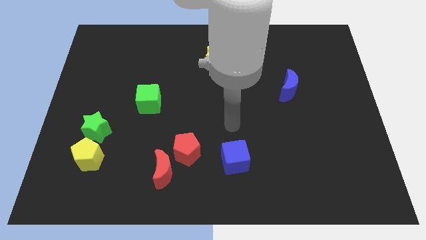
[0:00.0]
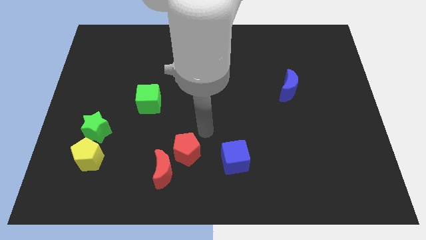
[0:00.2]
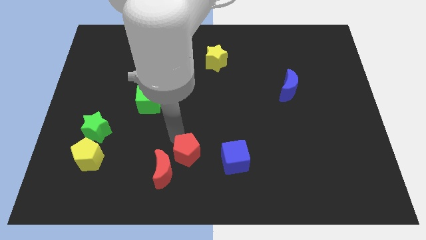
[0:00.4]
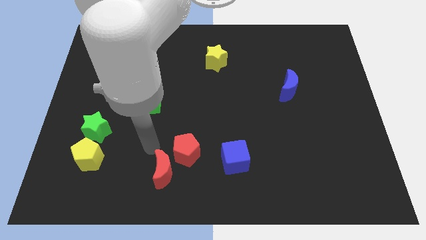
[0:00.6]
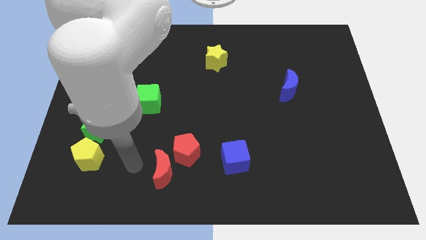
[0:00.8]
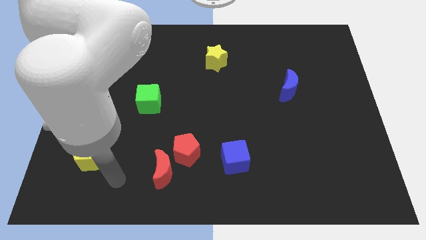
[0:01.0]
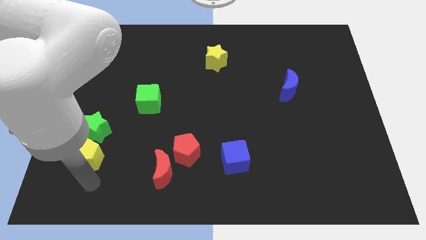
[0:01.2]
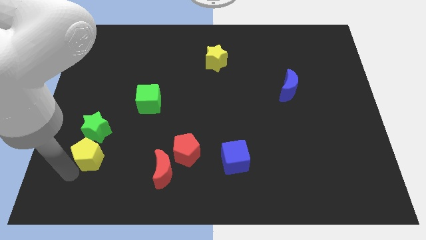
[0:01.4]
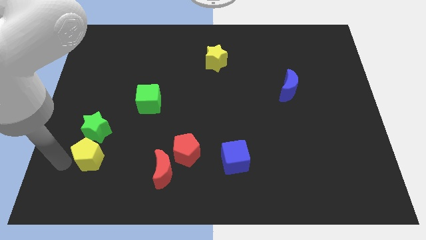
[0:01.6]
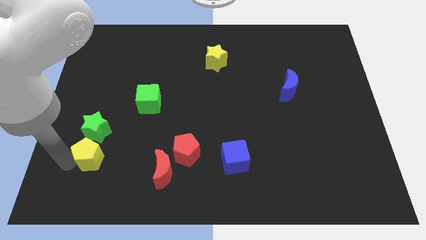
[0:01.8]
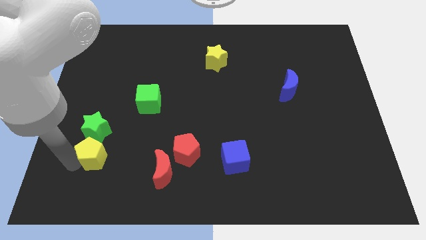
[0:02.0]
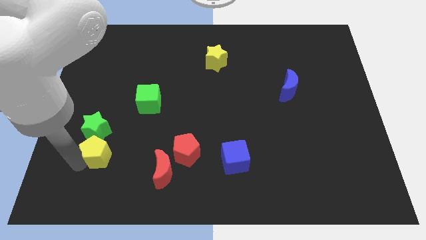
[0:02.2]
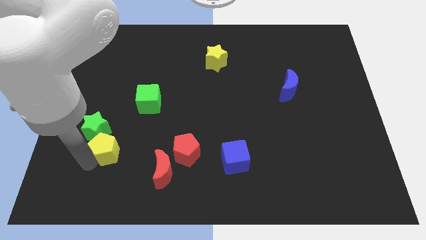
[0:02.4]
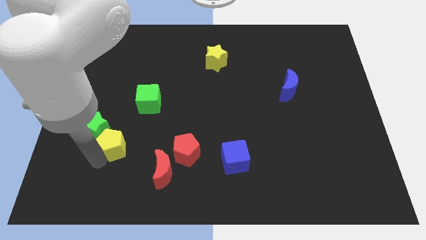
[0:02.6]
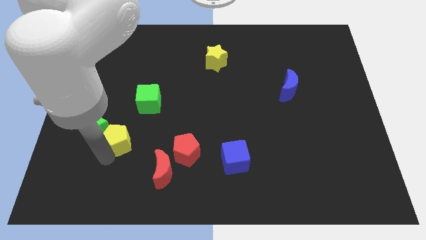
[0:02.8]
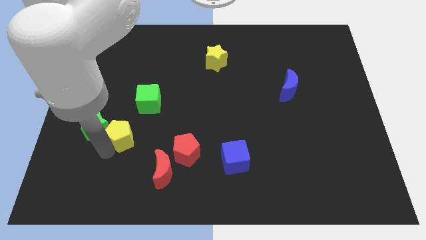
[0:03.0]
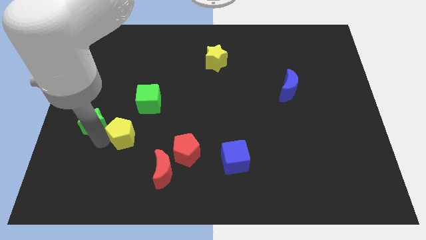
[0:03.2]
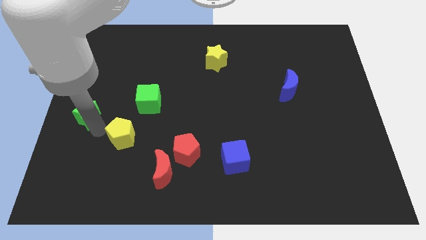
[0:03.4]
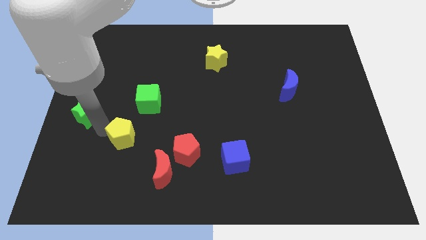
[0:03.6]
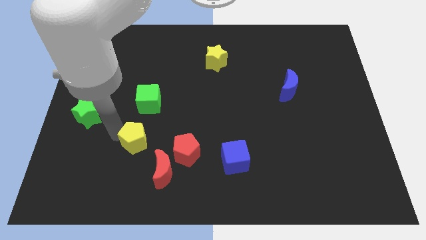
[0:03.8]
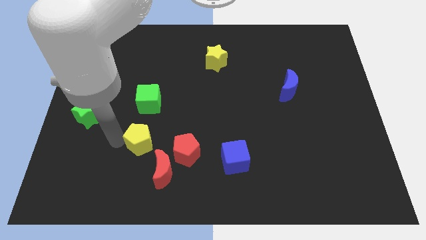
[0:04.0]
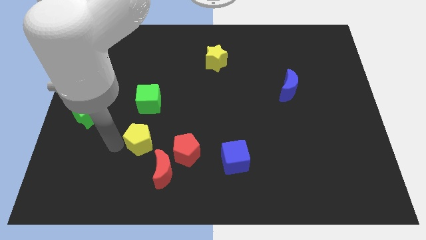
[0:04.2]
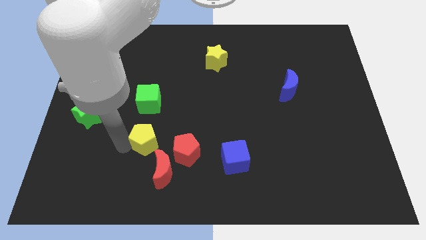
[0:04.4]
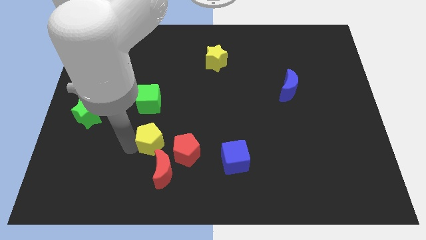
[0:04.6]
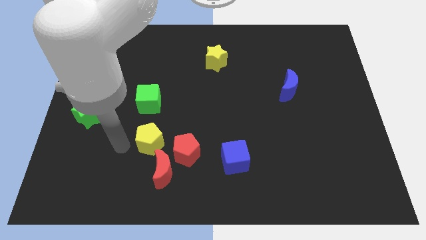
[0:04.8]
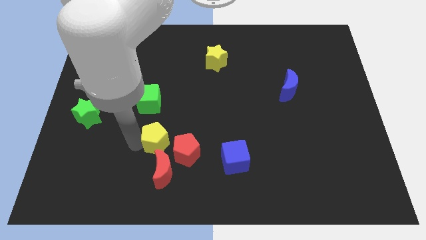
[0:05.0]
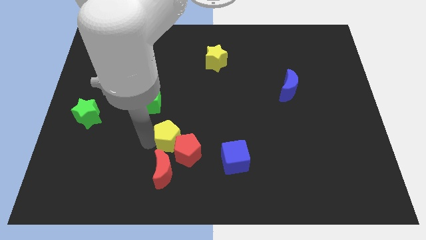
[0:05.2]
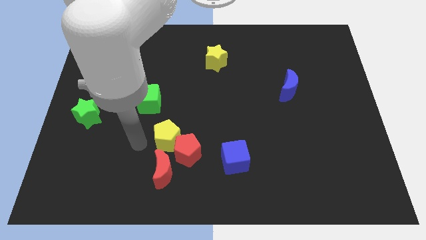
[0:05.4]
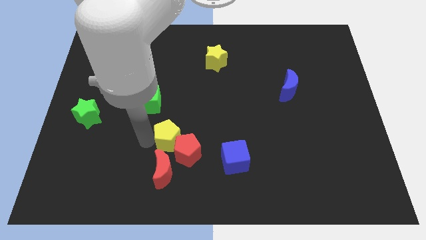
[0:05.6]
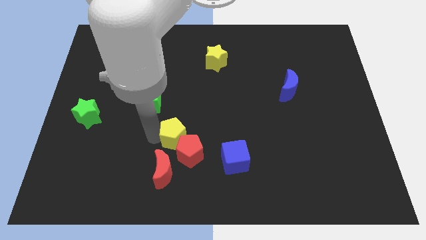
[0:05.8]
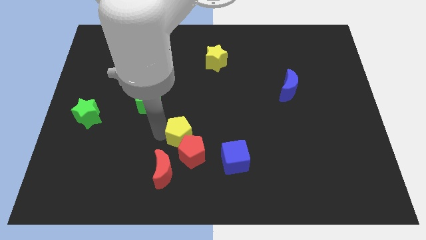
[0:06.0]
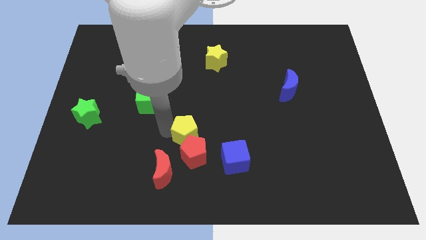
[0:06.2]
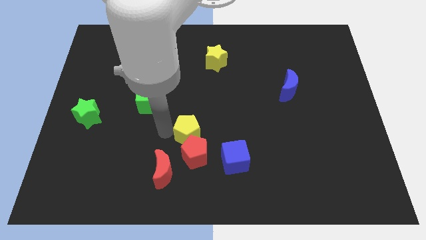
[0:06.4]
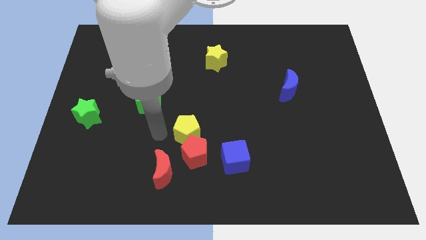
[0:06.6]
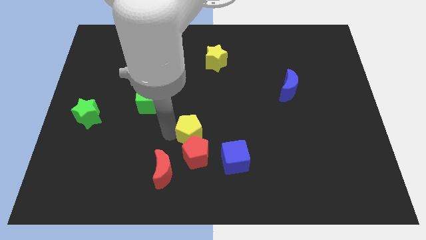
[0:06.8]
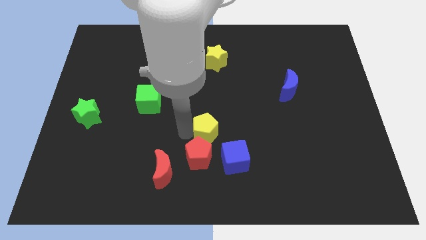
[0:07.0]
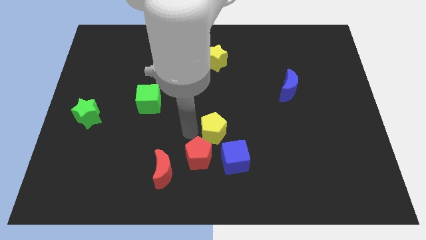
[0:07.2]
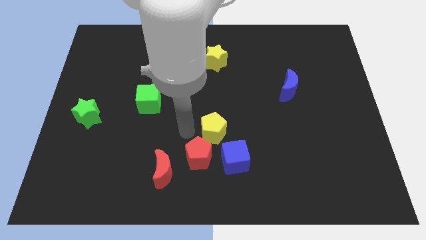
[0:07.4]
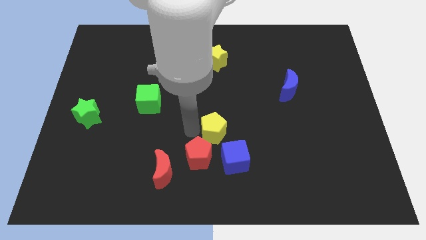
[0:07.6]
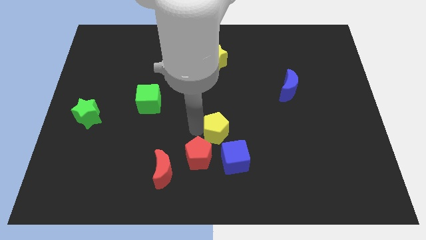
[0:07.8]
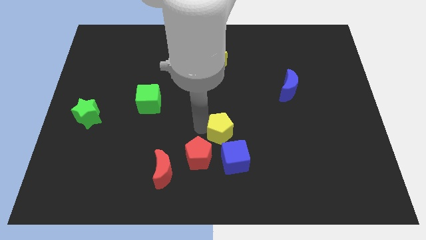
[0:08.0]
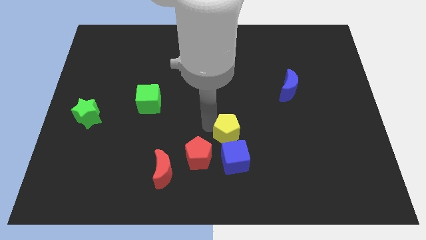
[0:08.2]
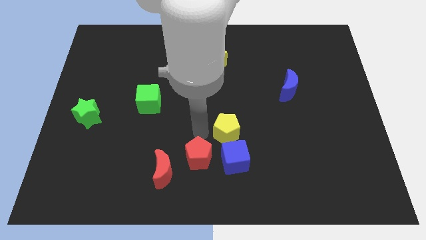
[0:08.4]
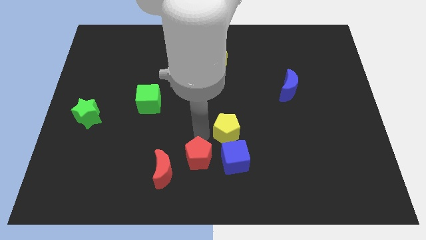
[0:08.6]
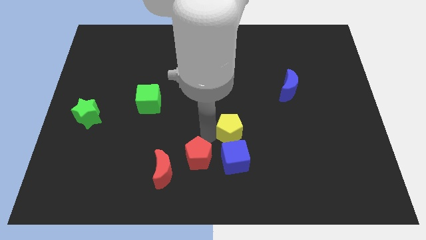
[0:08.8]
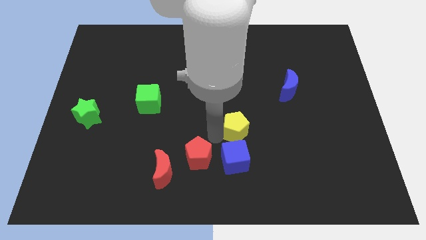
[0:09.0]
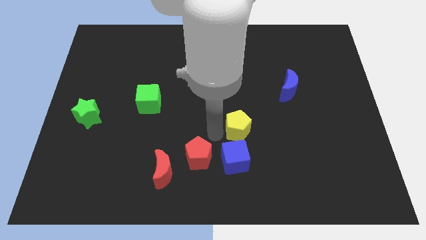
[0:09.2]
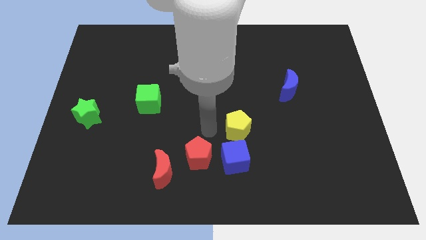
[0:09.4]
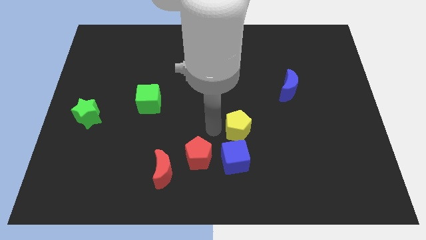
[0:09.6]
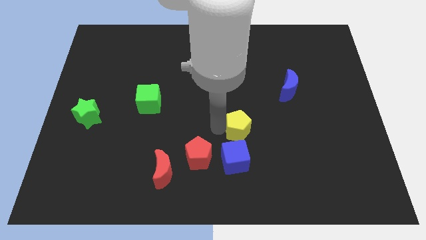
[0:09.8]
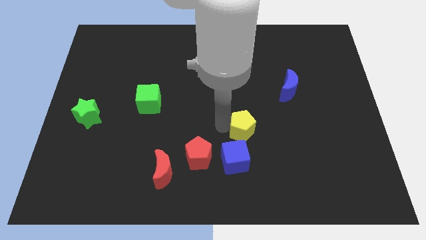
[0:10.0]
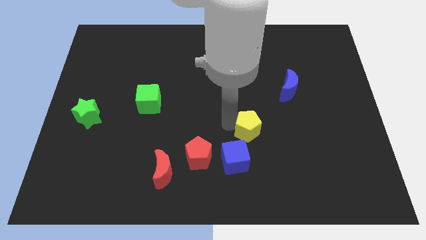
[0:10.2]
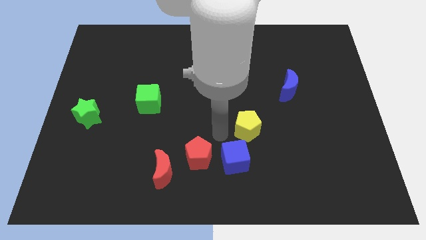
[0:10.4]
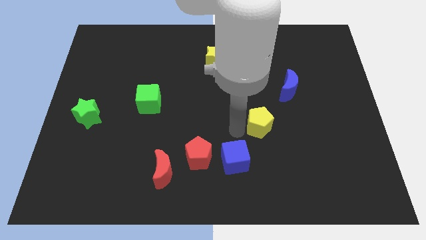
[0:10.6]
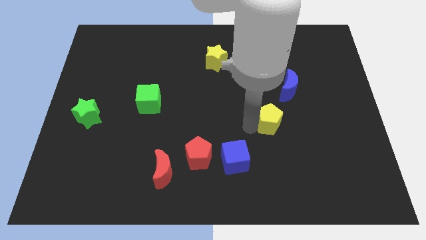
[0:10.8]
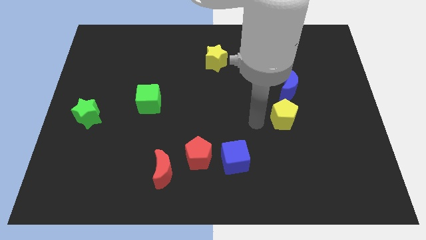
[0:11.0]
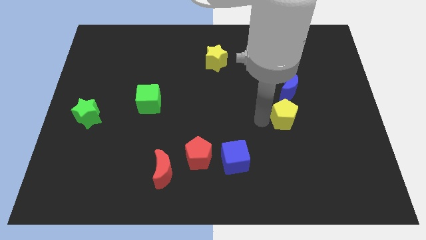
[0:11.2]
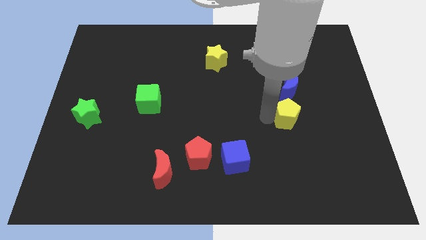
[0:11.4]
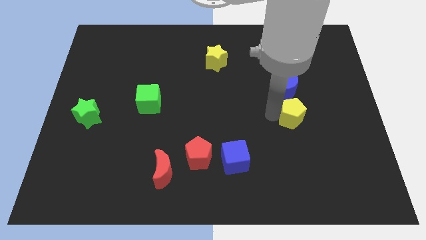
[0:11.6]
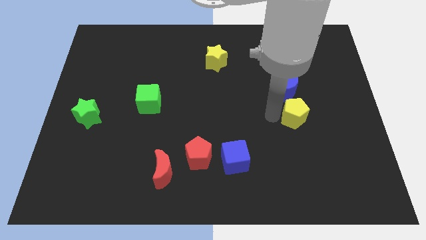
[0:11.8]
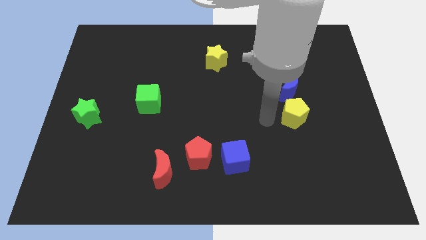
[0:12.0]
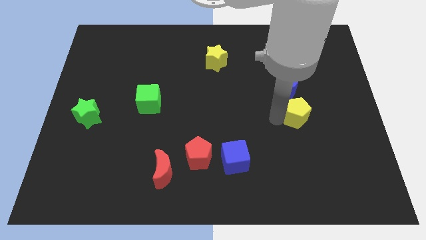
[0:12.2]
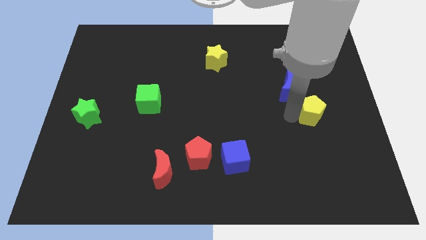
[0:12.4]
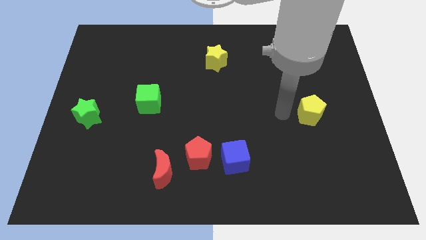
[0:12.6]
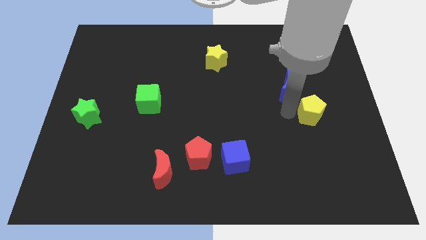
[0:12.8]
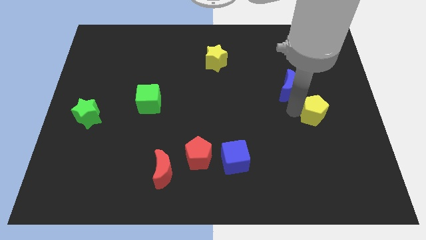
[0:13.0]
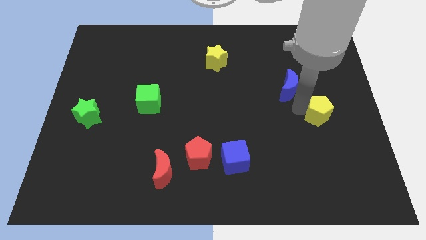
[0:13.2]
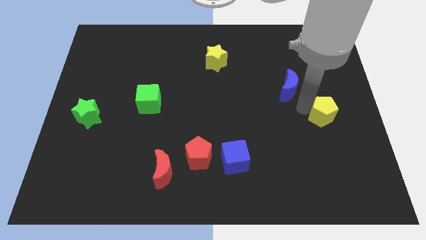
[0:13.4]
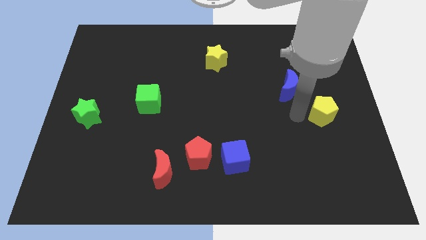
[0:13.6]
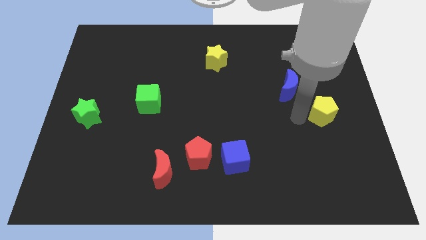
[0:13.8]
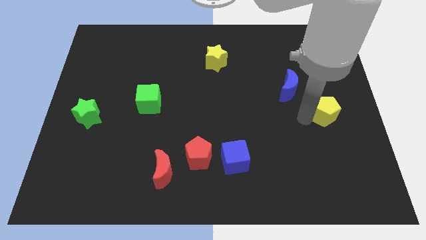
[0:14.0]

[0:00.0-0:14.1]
slide the yellow pentagon to the center right
